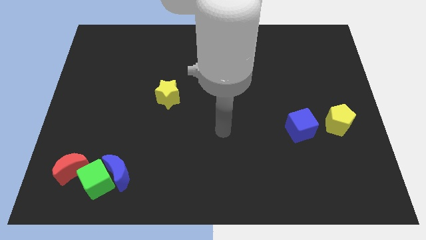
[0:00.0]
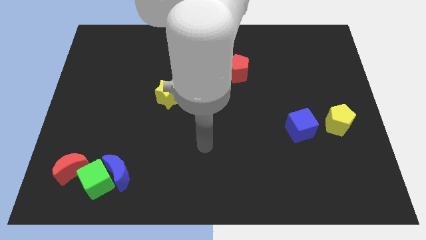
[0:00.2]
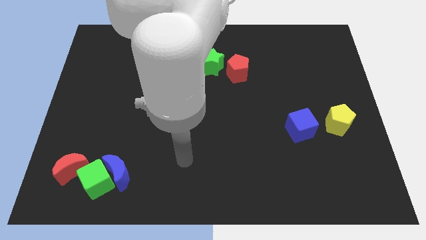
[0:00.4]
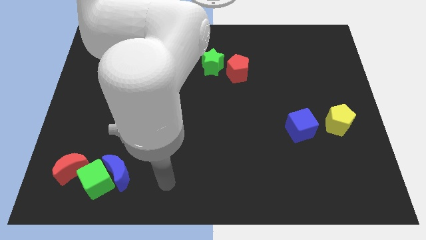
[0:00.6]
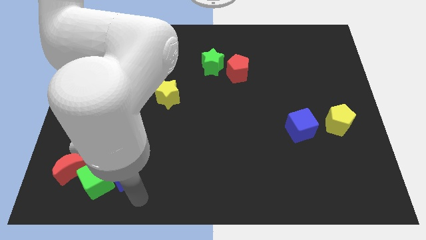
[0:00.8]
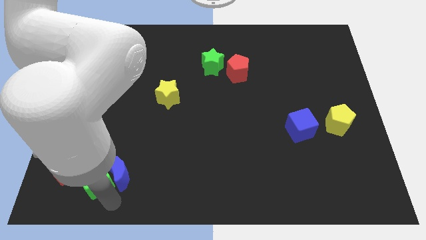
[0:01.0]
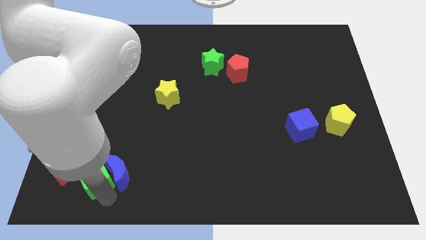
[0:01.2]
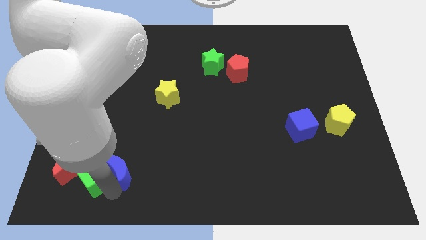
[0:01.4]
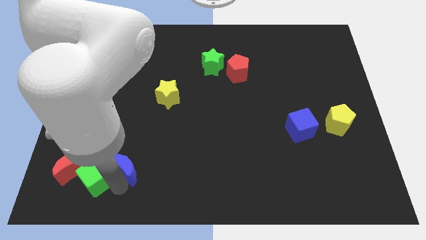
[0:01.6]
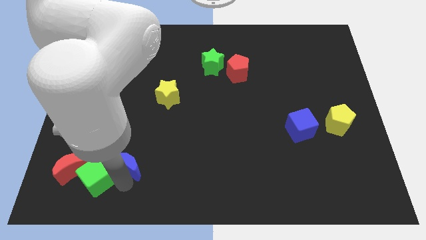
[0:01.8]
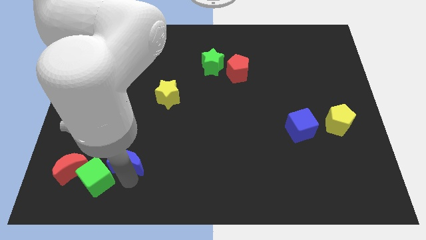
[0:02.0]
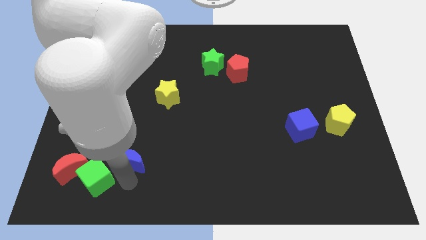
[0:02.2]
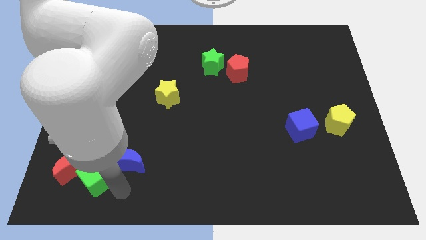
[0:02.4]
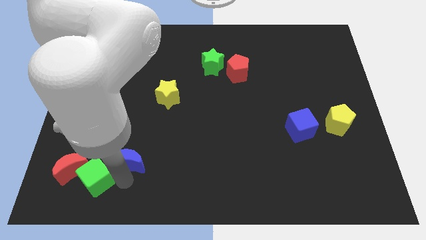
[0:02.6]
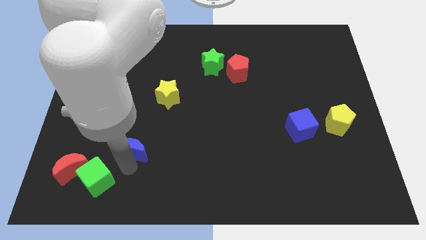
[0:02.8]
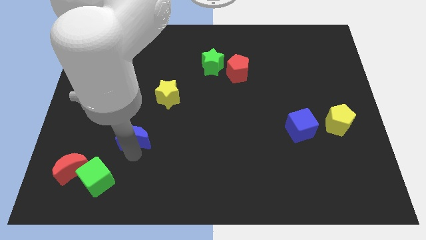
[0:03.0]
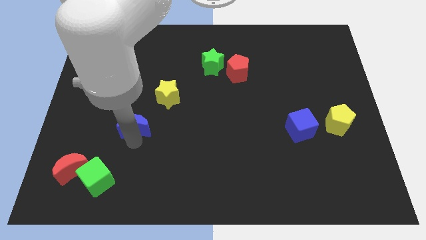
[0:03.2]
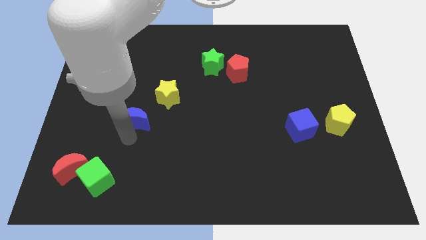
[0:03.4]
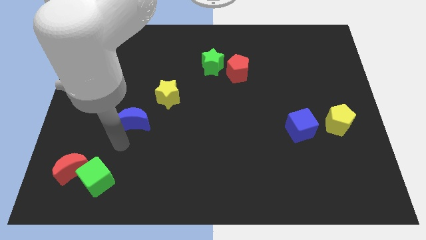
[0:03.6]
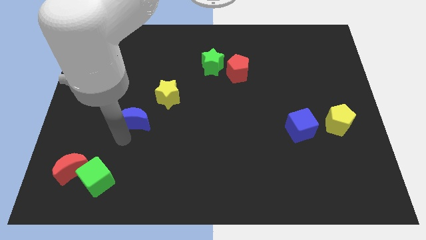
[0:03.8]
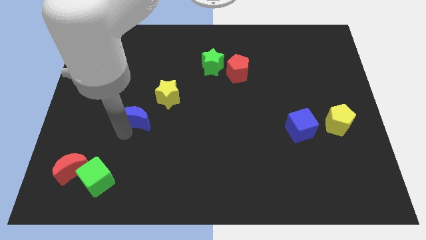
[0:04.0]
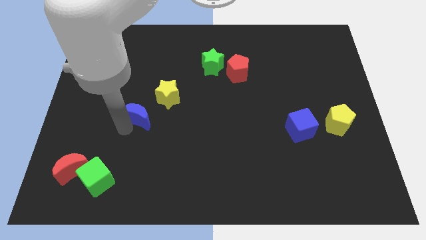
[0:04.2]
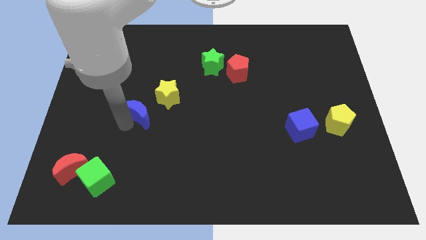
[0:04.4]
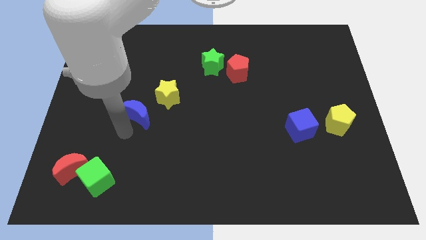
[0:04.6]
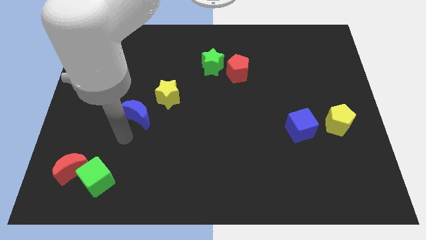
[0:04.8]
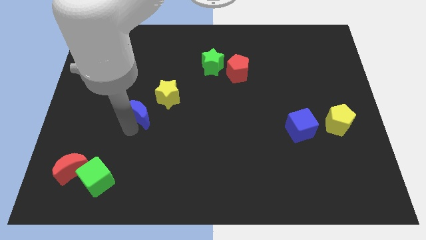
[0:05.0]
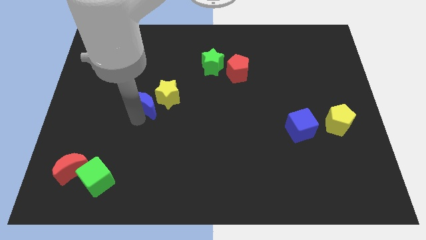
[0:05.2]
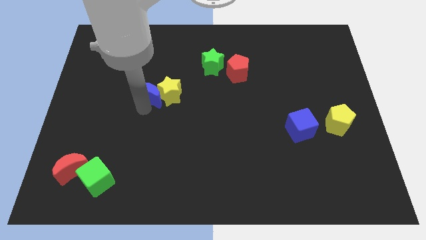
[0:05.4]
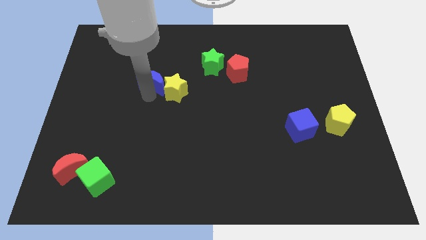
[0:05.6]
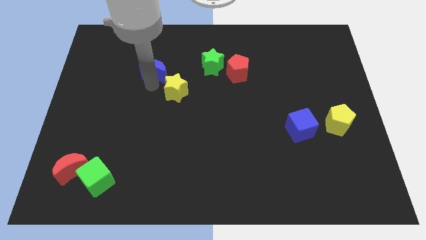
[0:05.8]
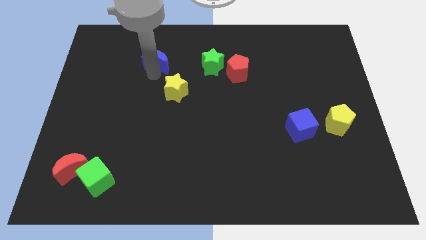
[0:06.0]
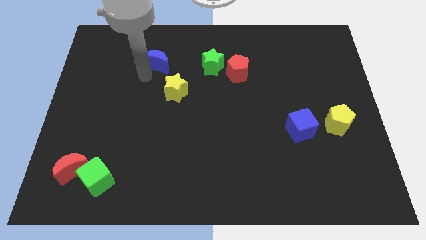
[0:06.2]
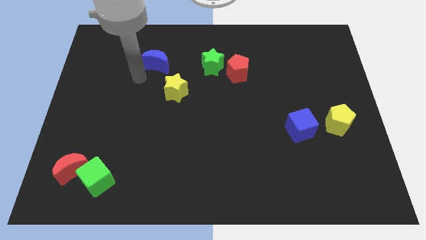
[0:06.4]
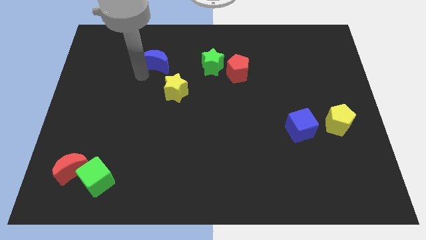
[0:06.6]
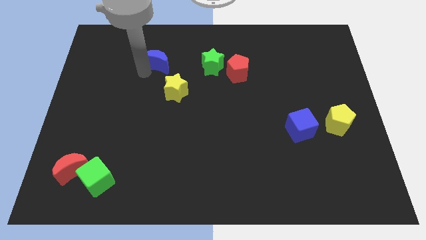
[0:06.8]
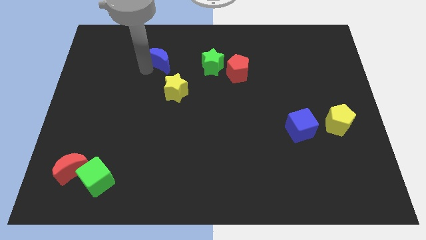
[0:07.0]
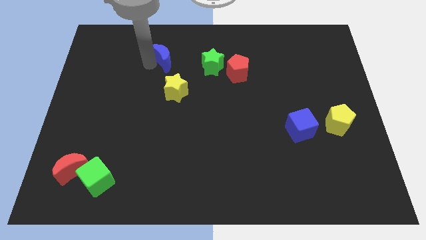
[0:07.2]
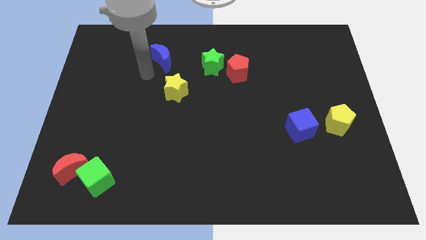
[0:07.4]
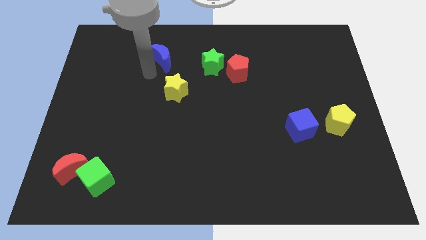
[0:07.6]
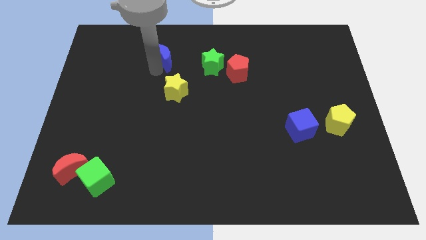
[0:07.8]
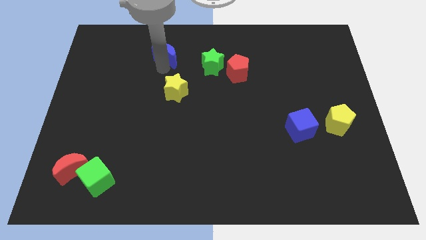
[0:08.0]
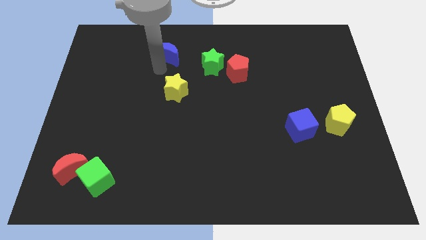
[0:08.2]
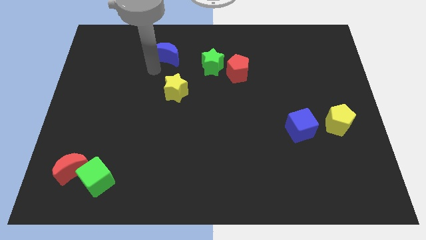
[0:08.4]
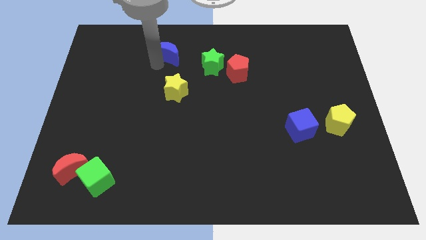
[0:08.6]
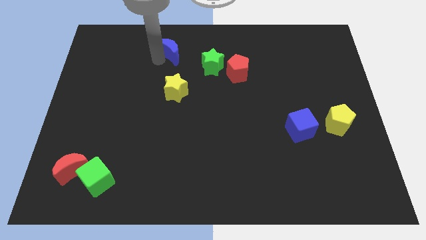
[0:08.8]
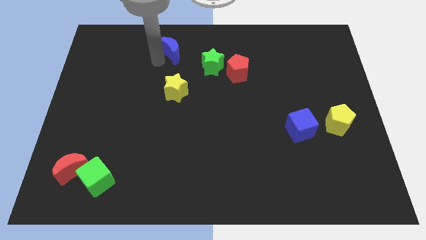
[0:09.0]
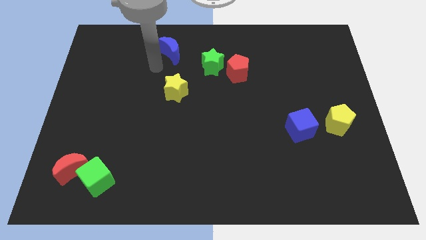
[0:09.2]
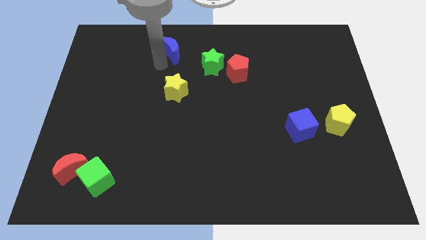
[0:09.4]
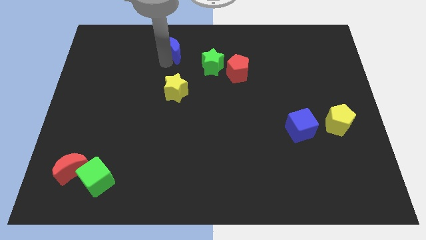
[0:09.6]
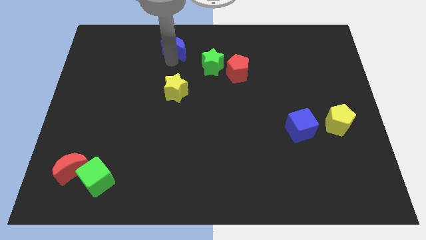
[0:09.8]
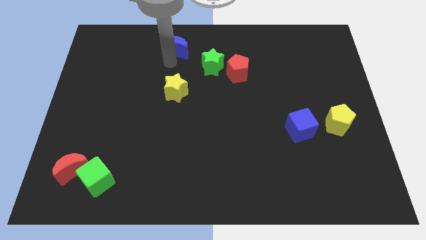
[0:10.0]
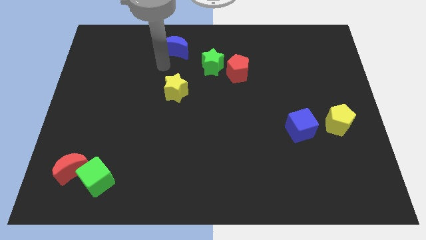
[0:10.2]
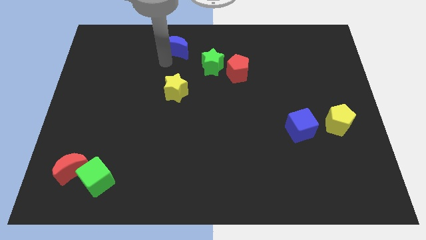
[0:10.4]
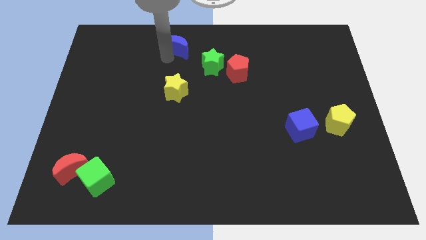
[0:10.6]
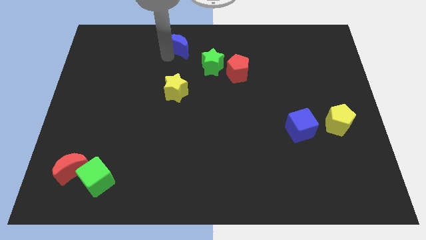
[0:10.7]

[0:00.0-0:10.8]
put the blue moon to the towards your base

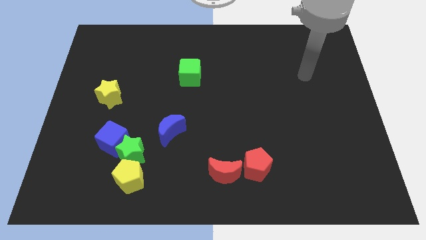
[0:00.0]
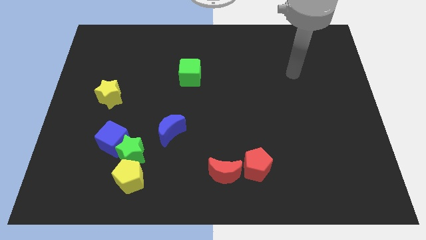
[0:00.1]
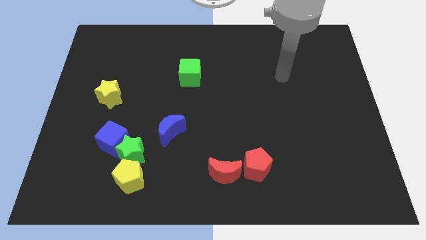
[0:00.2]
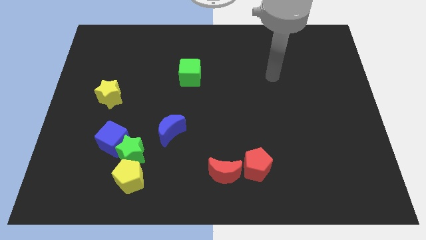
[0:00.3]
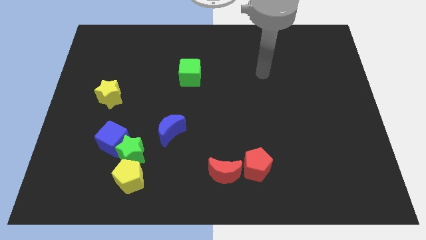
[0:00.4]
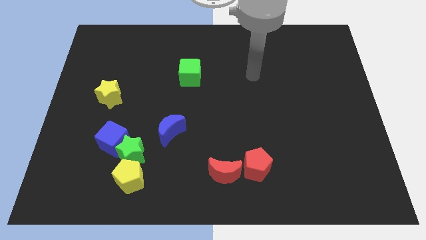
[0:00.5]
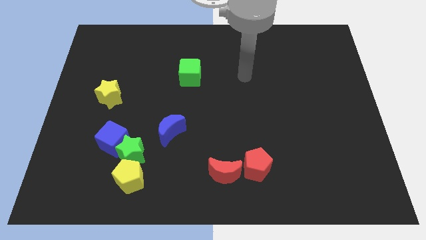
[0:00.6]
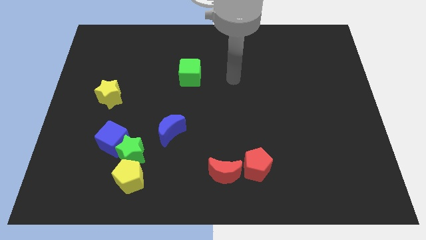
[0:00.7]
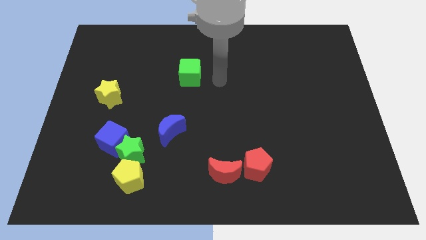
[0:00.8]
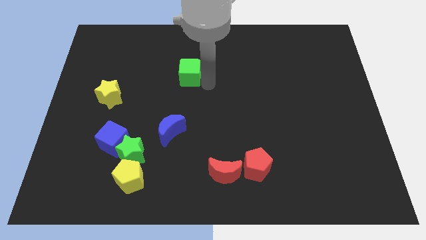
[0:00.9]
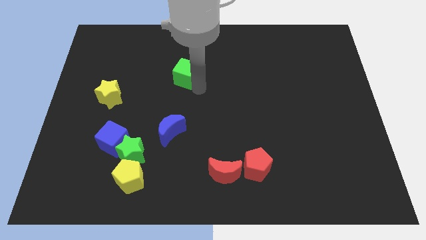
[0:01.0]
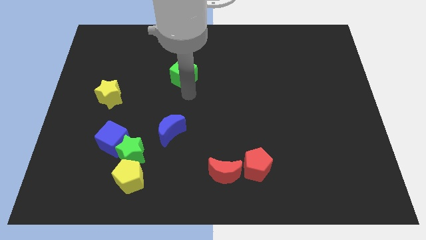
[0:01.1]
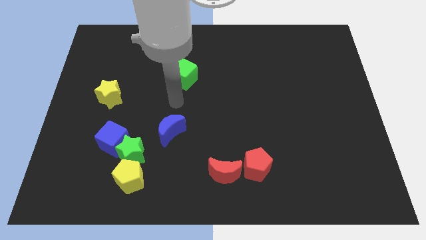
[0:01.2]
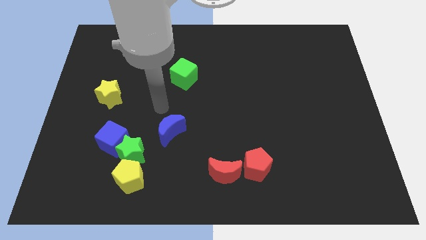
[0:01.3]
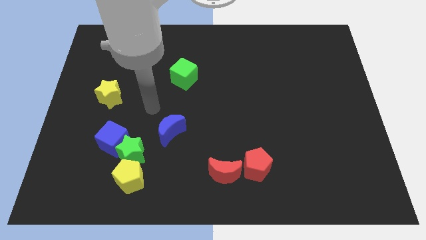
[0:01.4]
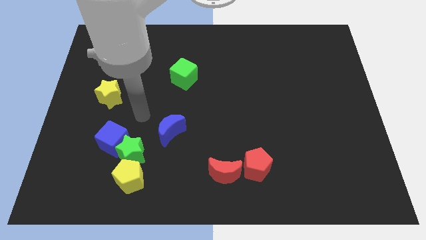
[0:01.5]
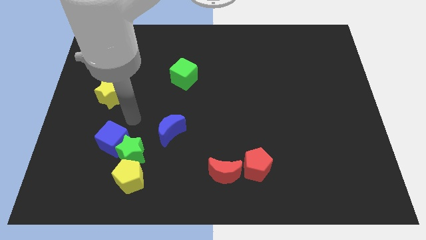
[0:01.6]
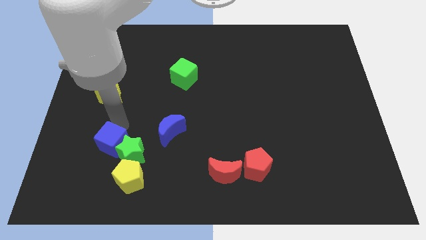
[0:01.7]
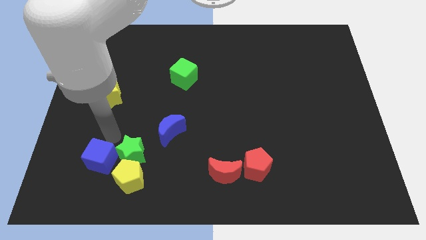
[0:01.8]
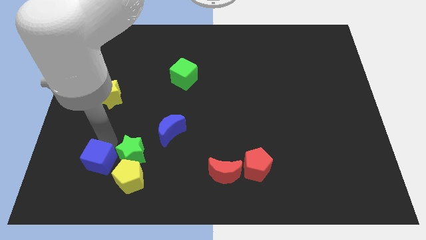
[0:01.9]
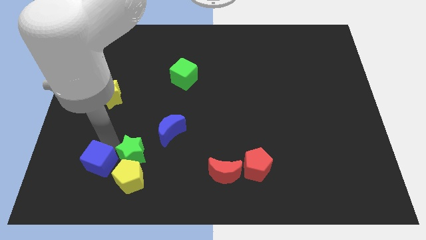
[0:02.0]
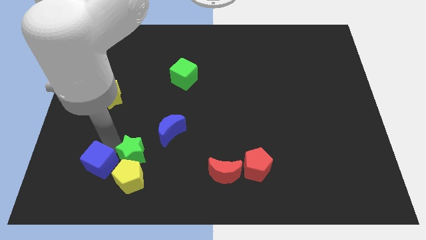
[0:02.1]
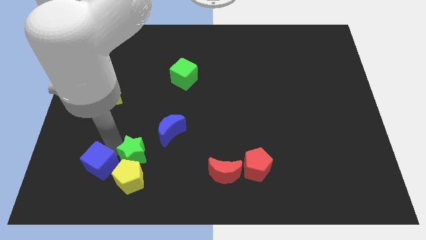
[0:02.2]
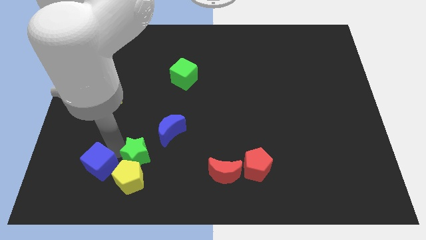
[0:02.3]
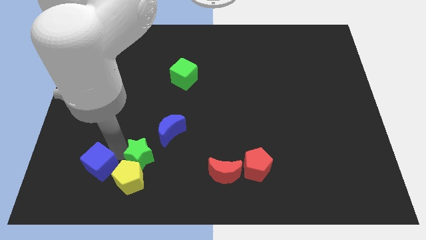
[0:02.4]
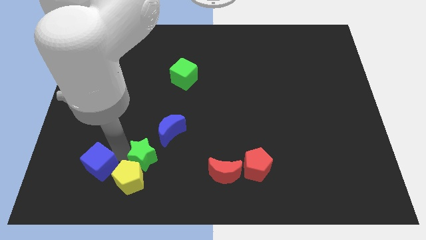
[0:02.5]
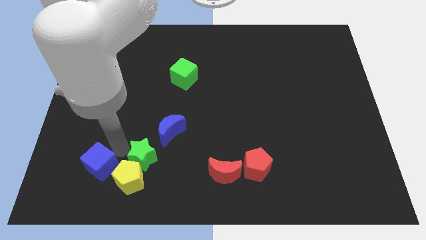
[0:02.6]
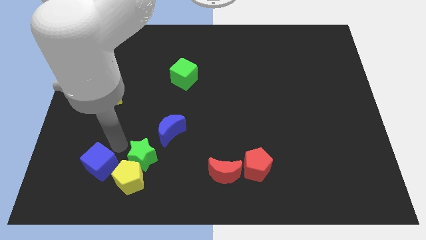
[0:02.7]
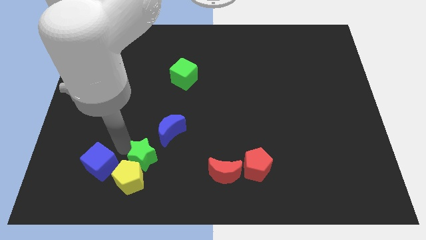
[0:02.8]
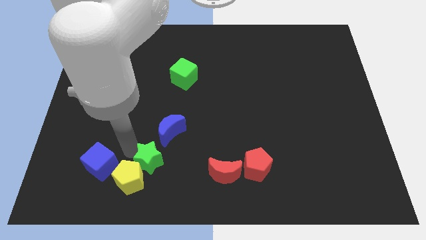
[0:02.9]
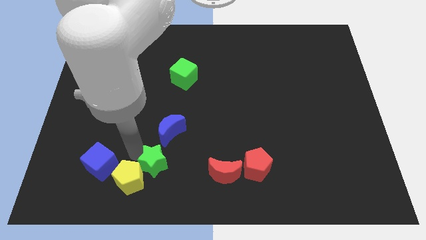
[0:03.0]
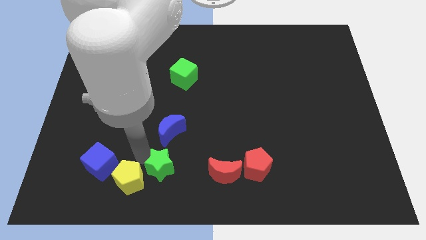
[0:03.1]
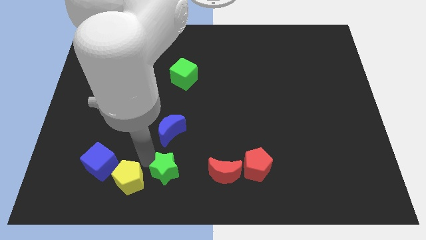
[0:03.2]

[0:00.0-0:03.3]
slide the green star to the bottom
